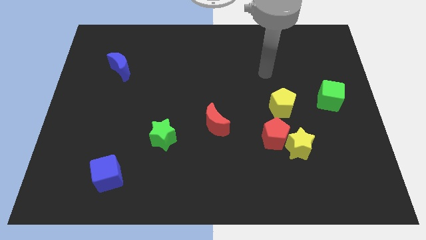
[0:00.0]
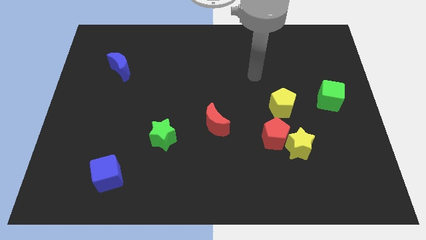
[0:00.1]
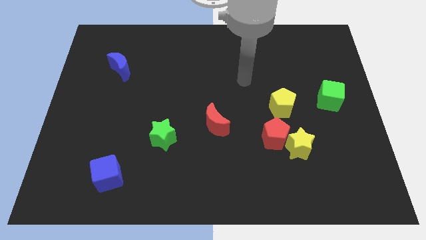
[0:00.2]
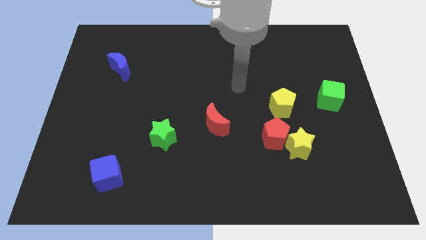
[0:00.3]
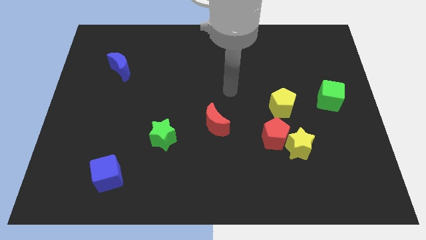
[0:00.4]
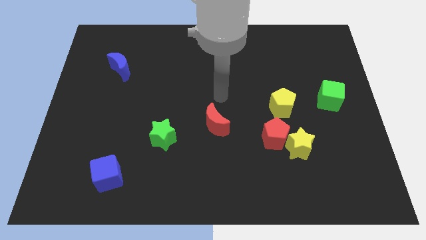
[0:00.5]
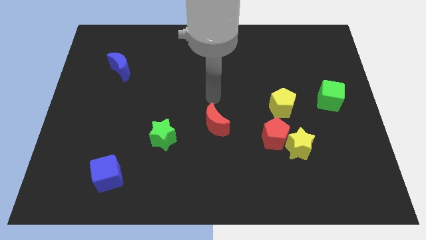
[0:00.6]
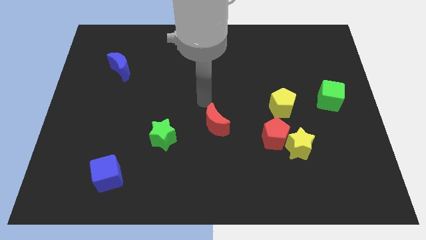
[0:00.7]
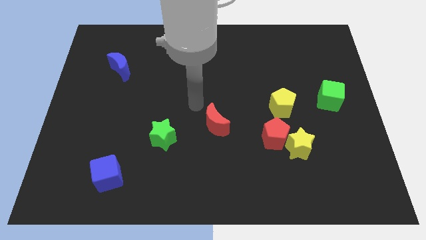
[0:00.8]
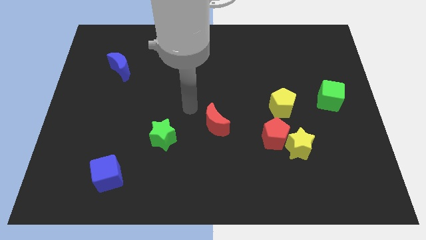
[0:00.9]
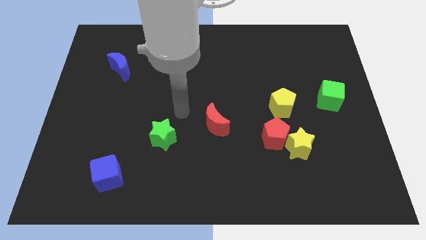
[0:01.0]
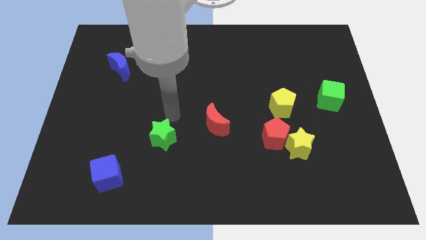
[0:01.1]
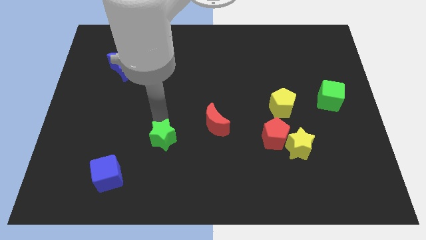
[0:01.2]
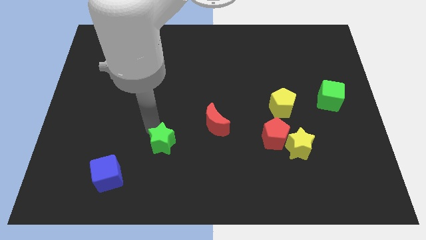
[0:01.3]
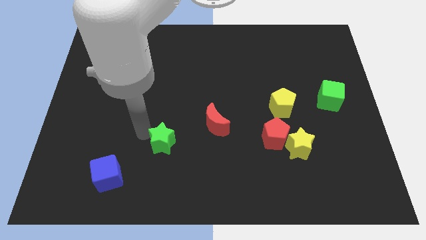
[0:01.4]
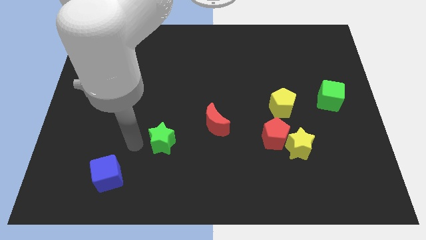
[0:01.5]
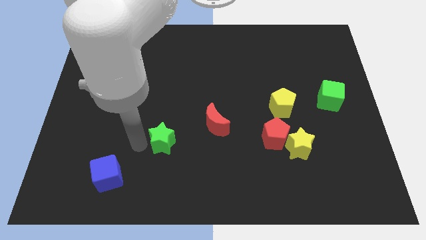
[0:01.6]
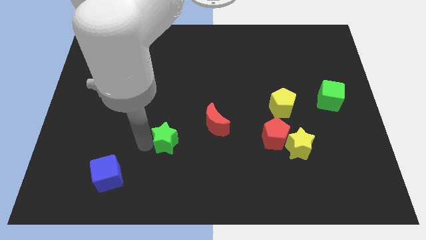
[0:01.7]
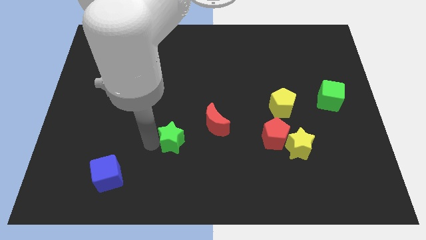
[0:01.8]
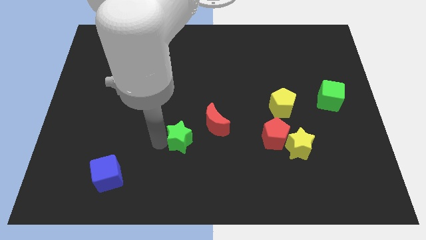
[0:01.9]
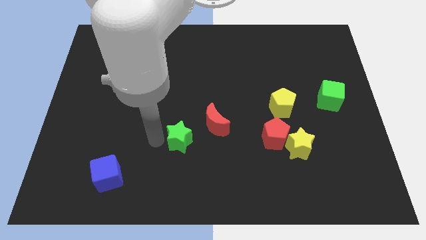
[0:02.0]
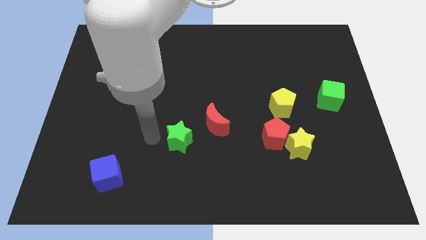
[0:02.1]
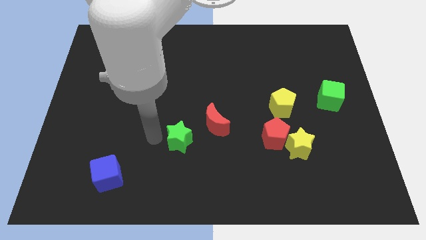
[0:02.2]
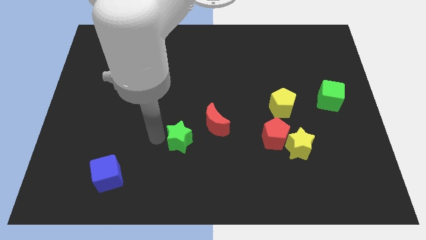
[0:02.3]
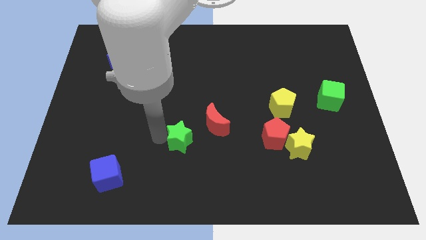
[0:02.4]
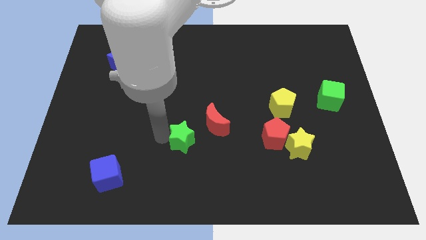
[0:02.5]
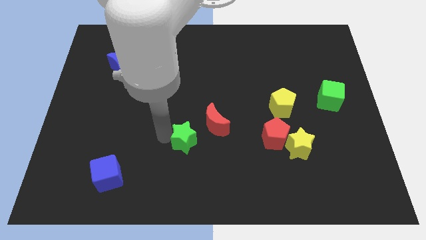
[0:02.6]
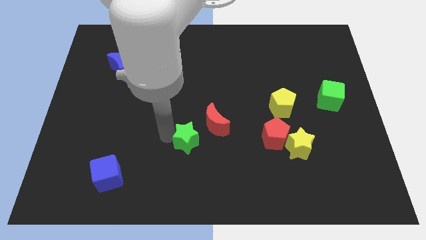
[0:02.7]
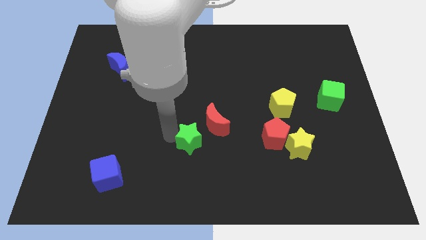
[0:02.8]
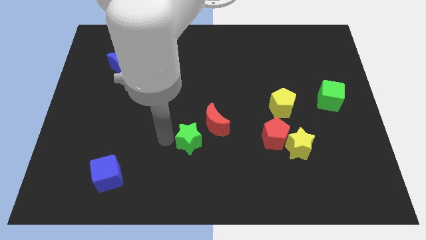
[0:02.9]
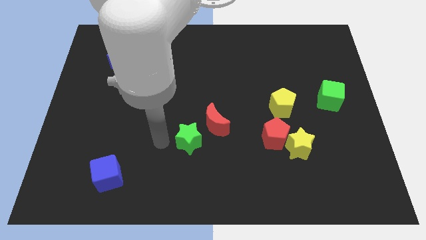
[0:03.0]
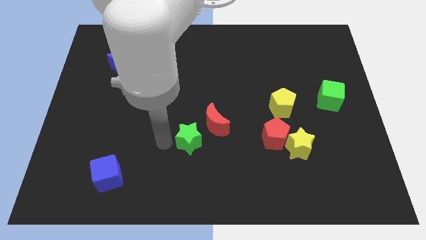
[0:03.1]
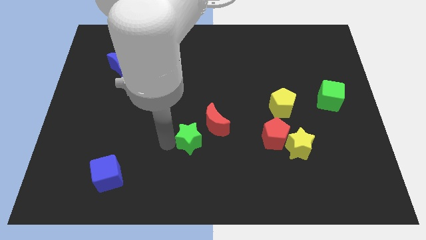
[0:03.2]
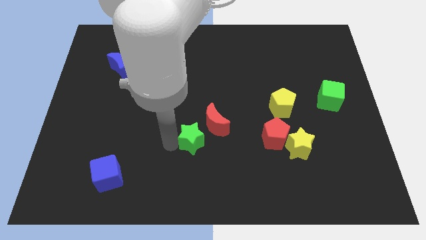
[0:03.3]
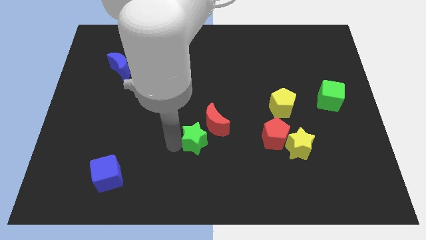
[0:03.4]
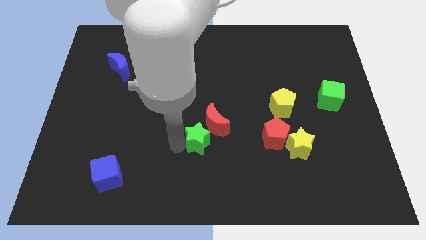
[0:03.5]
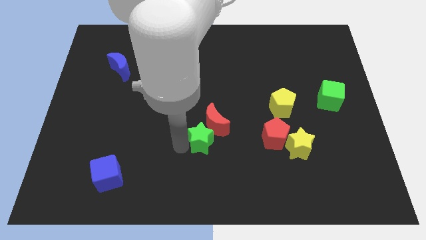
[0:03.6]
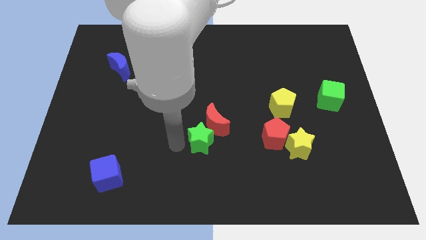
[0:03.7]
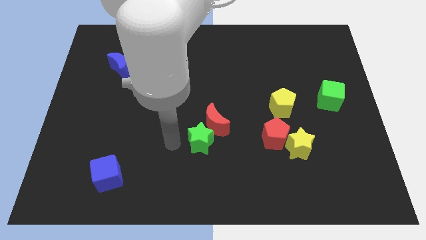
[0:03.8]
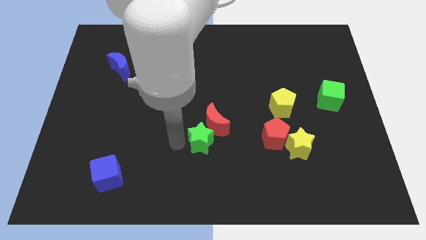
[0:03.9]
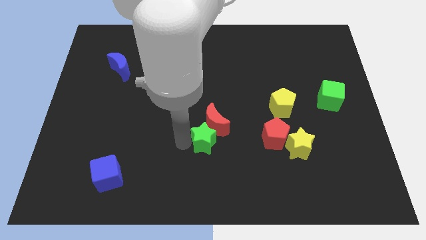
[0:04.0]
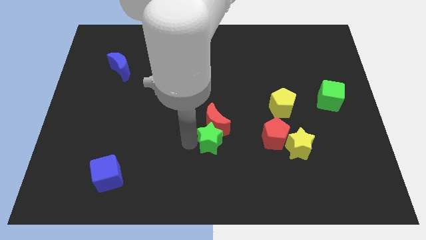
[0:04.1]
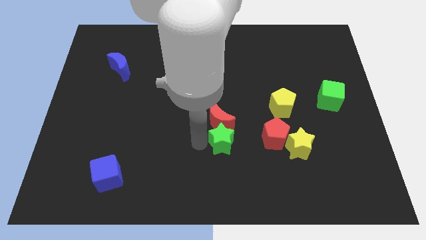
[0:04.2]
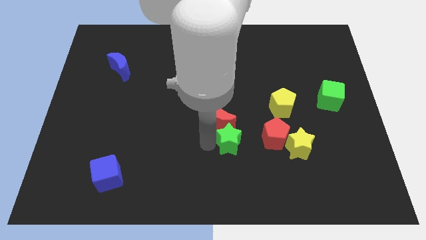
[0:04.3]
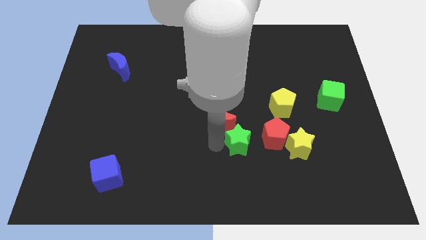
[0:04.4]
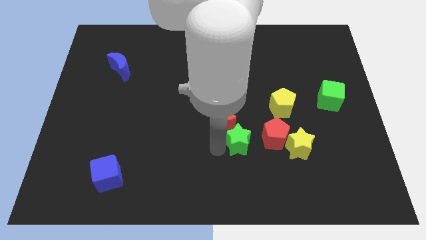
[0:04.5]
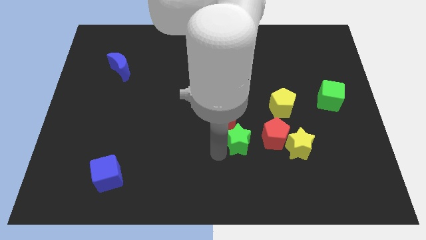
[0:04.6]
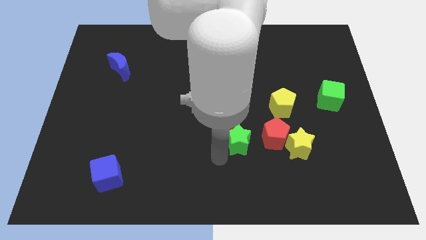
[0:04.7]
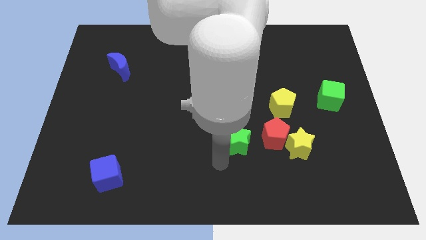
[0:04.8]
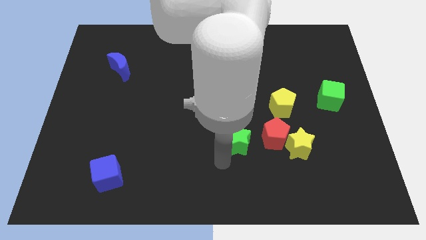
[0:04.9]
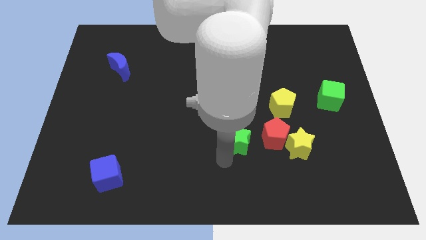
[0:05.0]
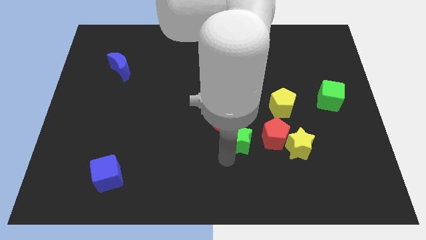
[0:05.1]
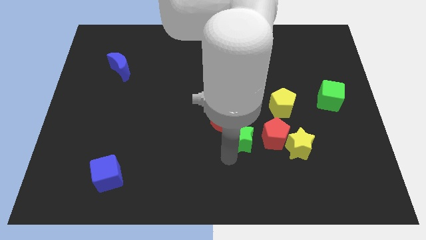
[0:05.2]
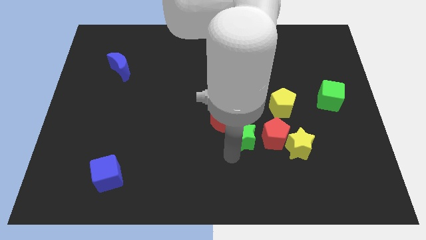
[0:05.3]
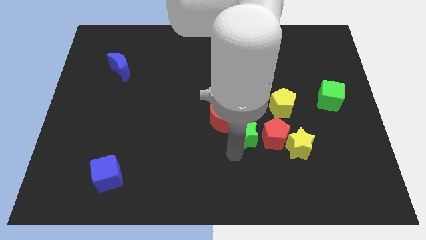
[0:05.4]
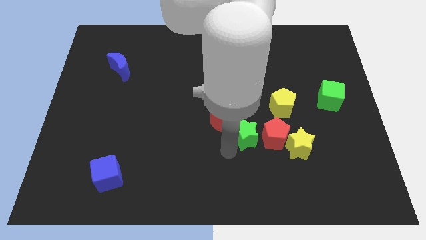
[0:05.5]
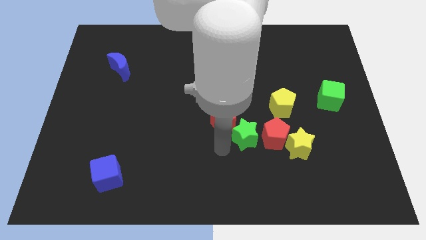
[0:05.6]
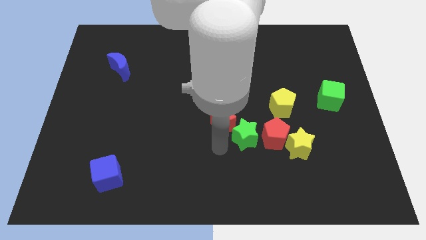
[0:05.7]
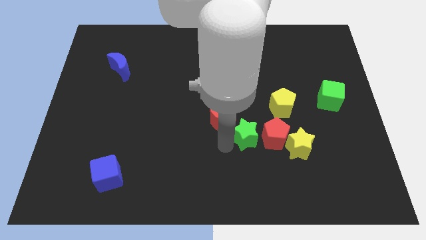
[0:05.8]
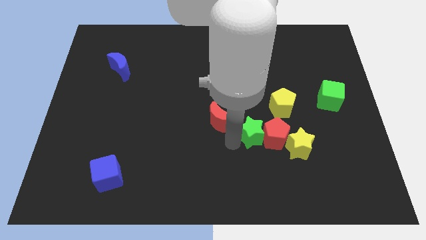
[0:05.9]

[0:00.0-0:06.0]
put the green star to the top left of the yellow star

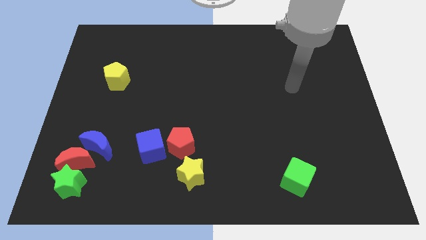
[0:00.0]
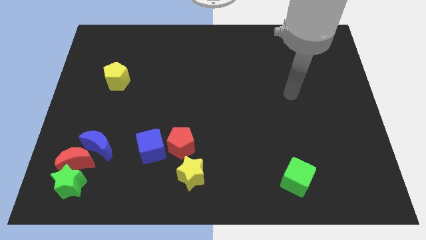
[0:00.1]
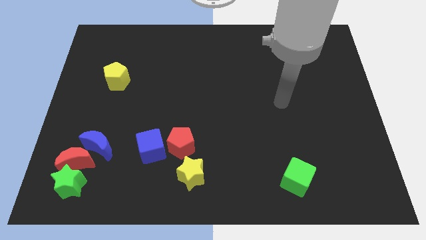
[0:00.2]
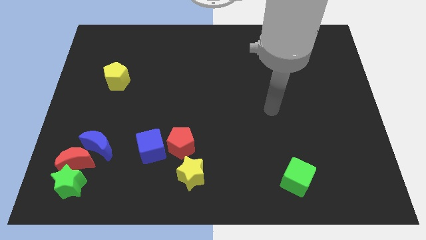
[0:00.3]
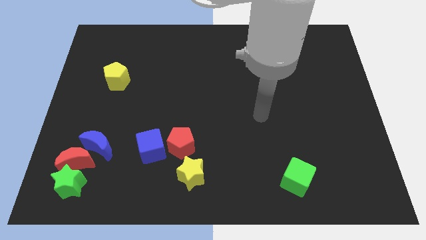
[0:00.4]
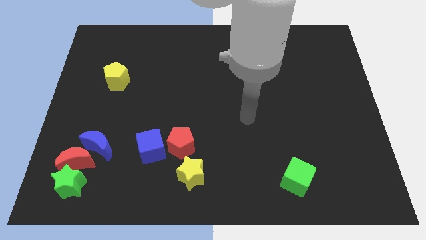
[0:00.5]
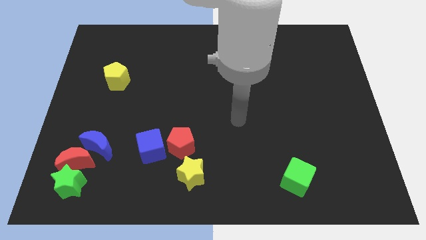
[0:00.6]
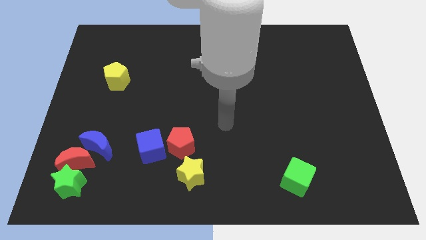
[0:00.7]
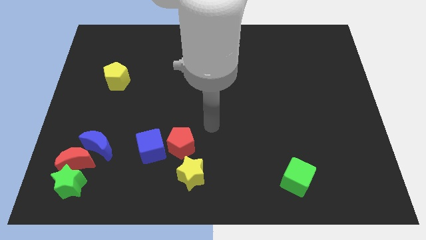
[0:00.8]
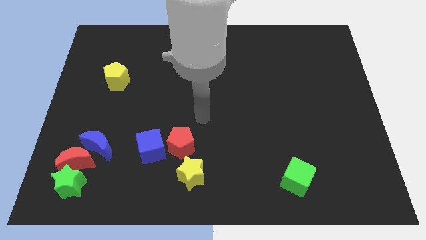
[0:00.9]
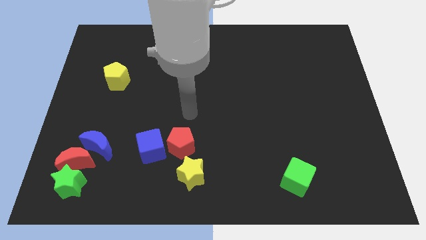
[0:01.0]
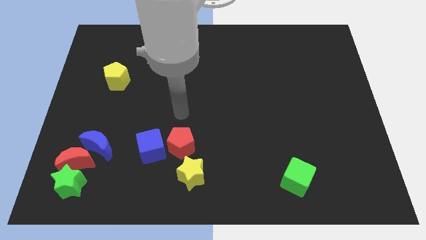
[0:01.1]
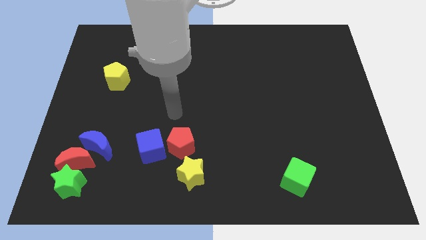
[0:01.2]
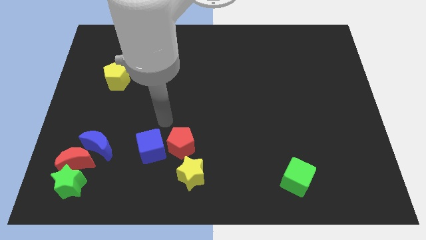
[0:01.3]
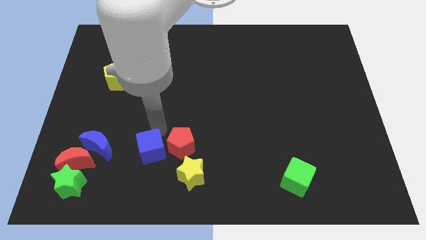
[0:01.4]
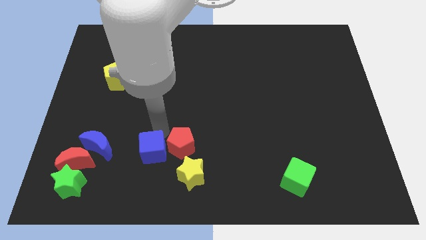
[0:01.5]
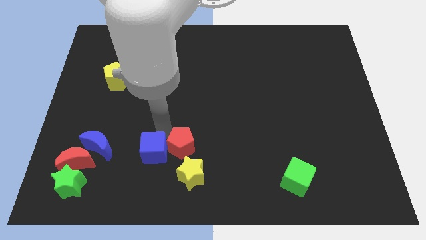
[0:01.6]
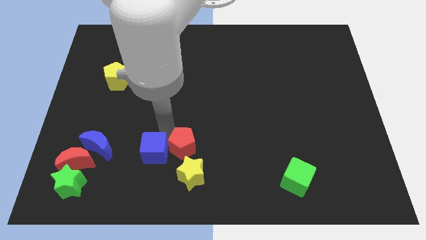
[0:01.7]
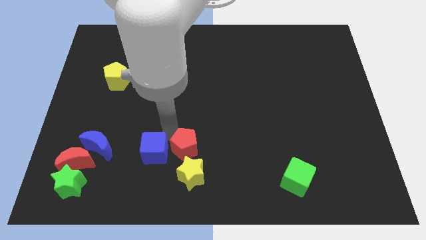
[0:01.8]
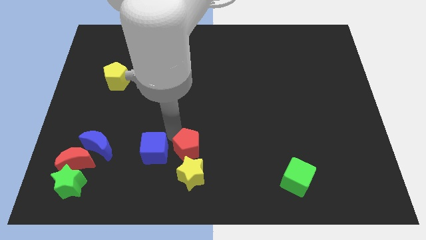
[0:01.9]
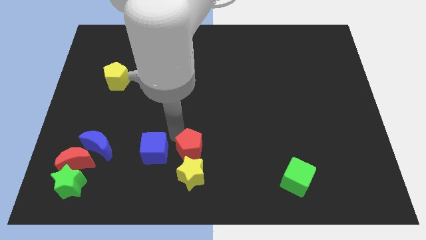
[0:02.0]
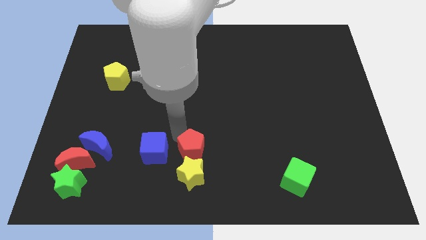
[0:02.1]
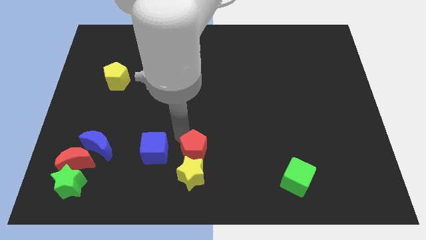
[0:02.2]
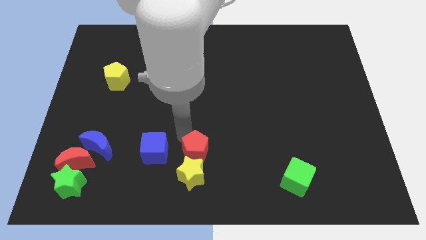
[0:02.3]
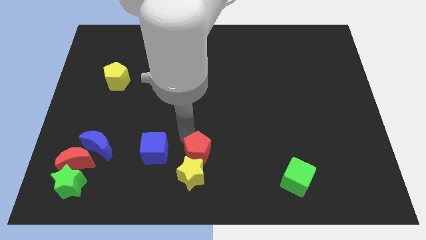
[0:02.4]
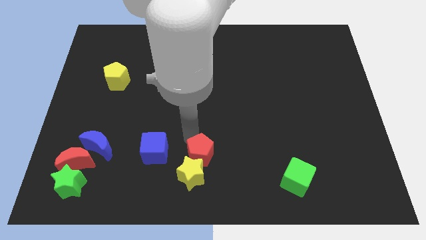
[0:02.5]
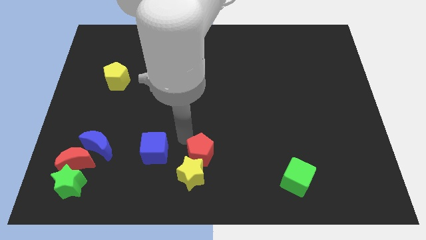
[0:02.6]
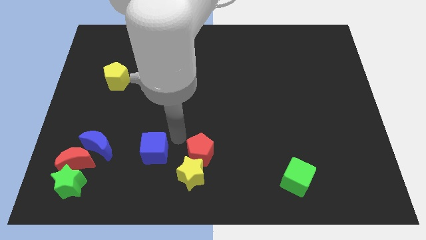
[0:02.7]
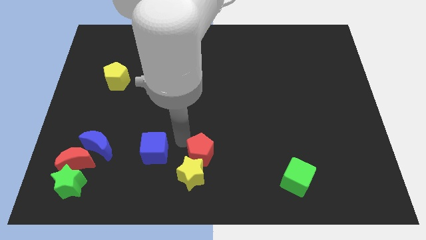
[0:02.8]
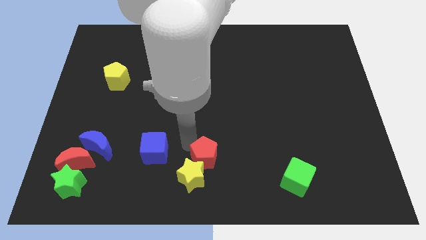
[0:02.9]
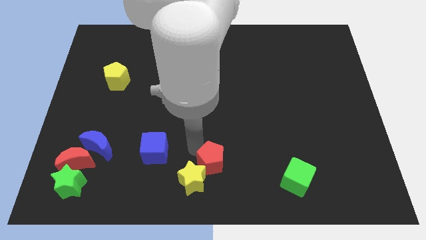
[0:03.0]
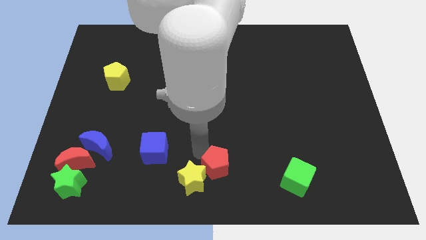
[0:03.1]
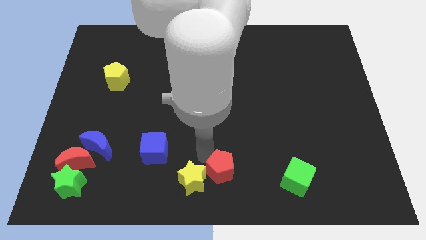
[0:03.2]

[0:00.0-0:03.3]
slide the red pentagon just left of the green cube
